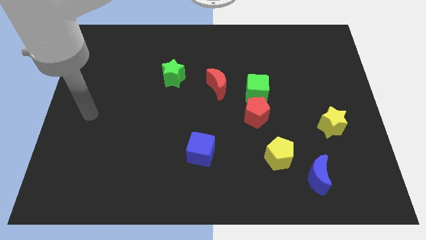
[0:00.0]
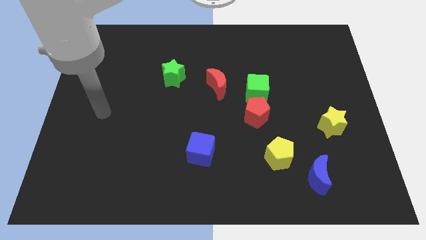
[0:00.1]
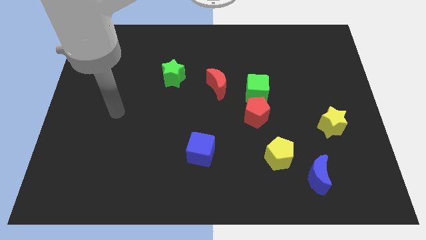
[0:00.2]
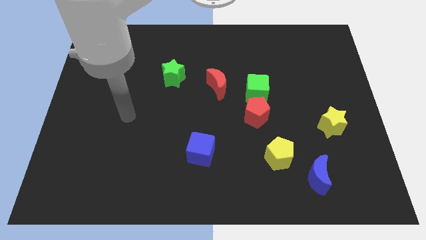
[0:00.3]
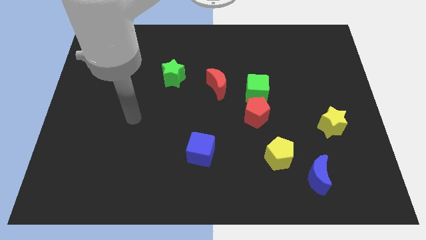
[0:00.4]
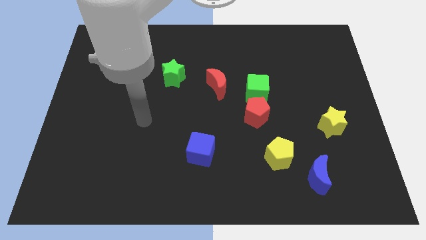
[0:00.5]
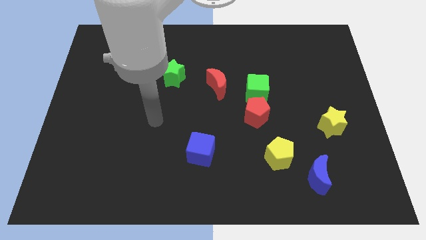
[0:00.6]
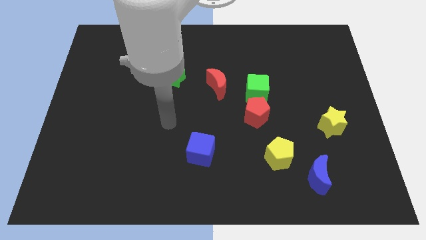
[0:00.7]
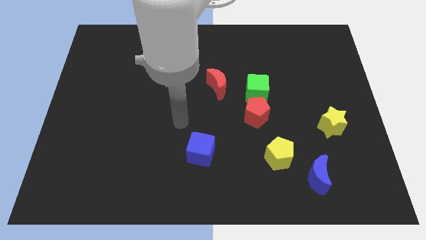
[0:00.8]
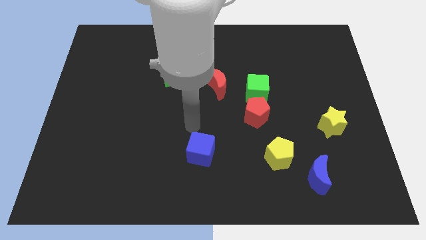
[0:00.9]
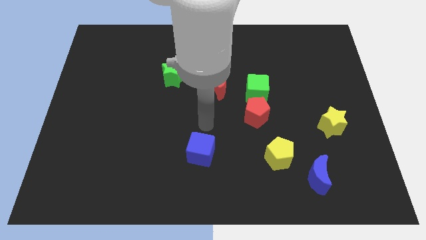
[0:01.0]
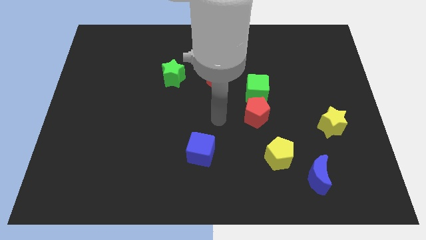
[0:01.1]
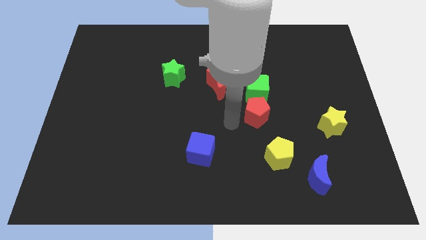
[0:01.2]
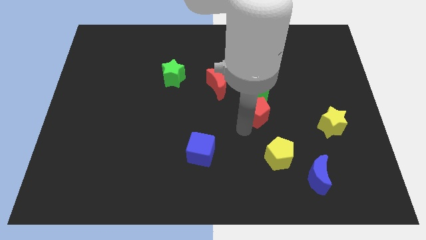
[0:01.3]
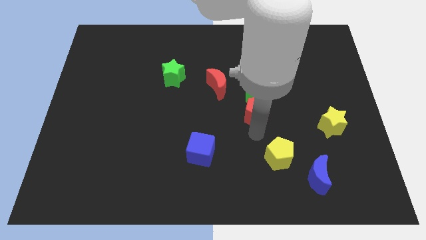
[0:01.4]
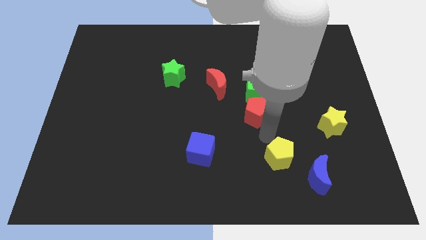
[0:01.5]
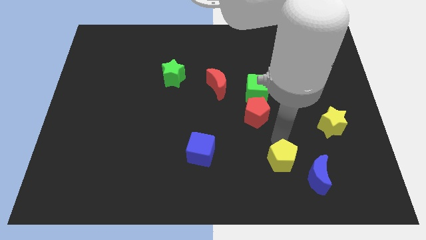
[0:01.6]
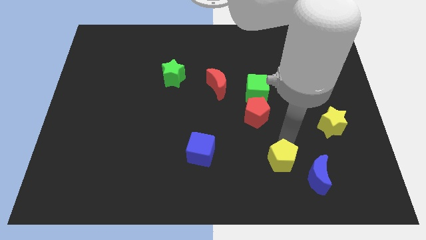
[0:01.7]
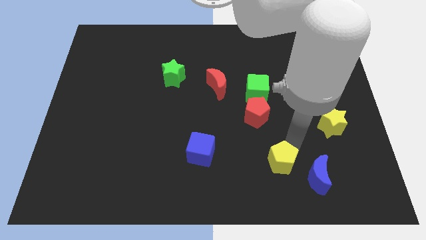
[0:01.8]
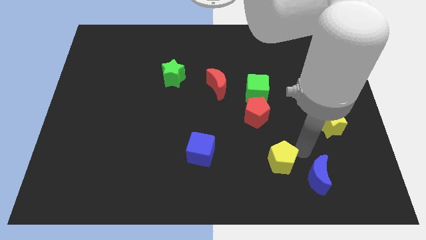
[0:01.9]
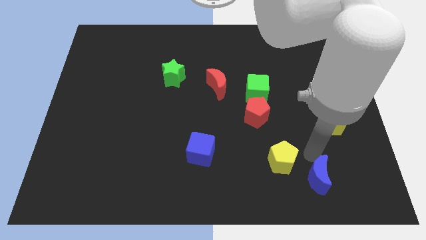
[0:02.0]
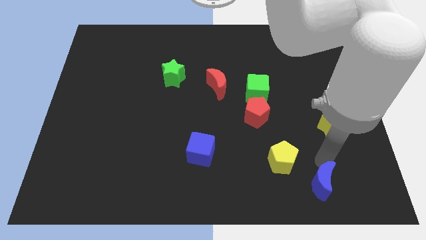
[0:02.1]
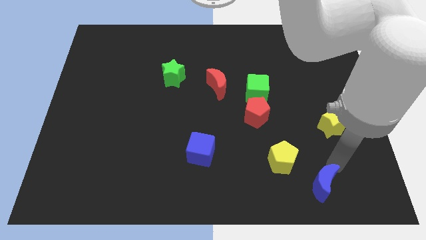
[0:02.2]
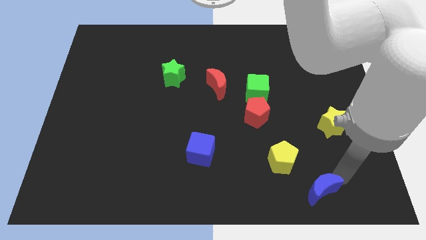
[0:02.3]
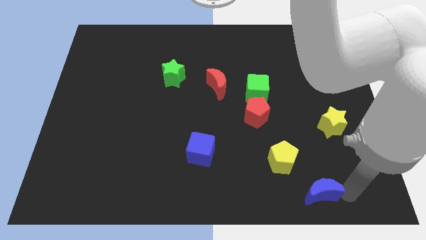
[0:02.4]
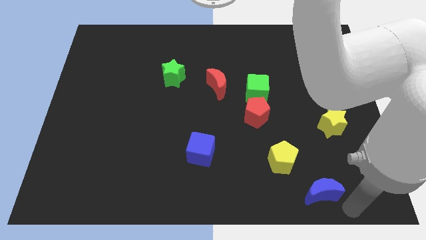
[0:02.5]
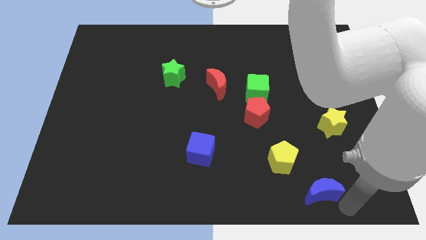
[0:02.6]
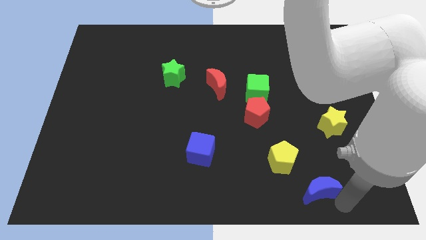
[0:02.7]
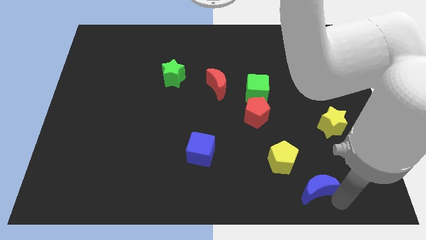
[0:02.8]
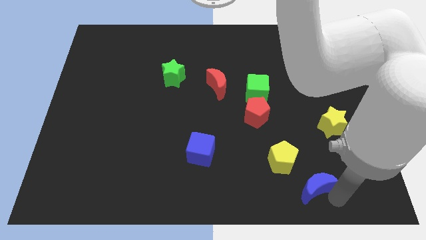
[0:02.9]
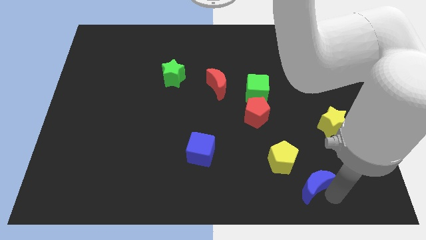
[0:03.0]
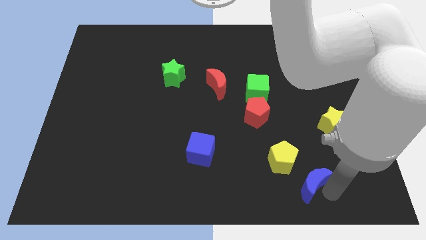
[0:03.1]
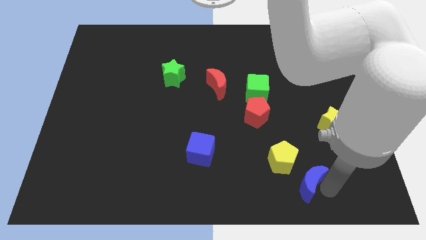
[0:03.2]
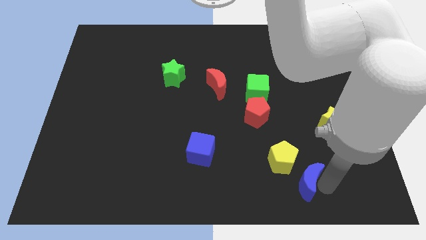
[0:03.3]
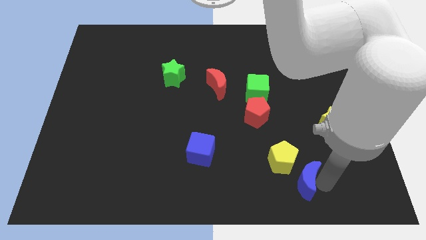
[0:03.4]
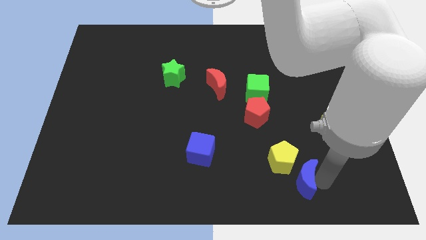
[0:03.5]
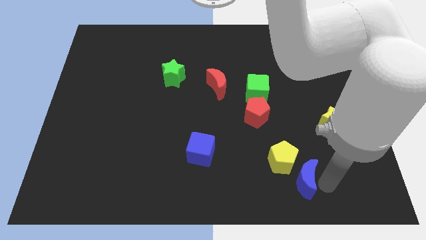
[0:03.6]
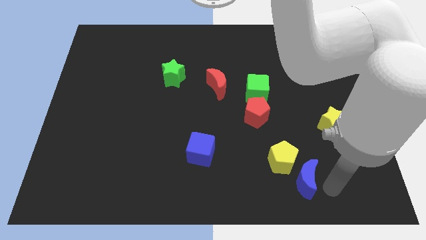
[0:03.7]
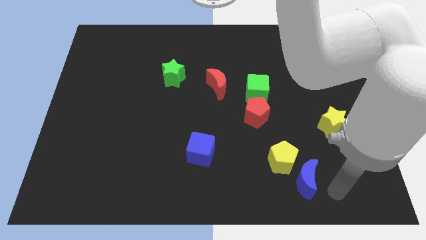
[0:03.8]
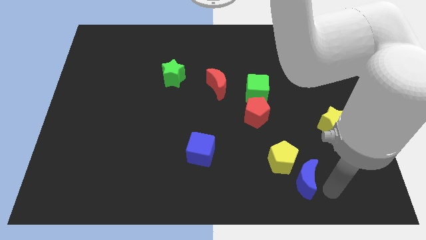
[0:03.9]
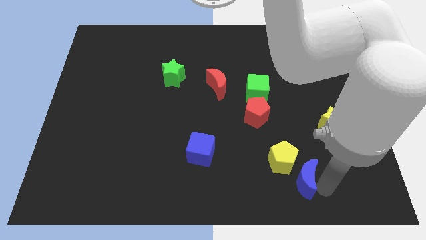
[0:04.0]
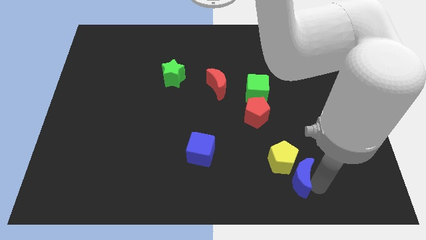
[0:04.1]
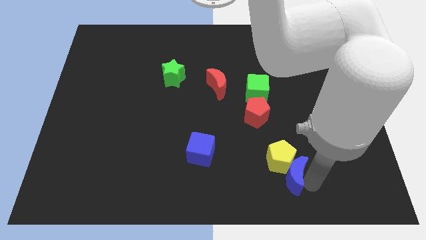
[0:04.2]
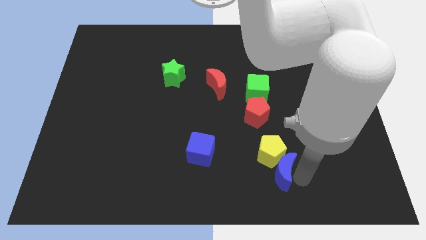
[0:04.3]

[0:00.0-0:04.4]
move the blue moon somewhat left

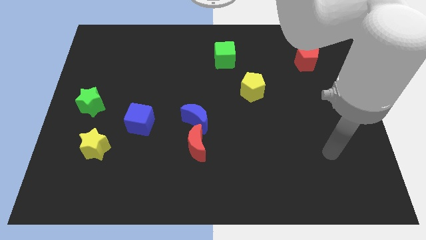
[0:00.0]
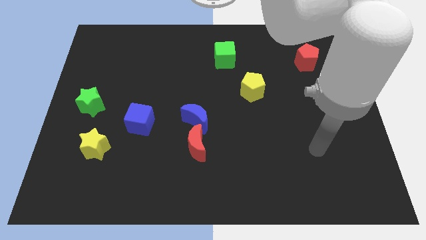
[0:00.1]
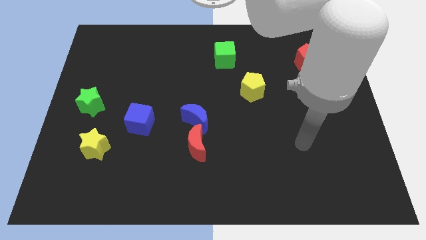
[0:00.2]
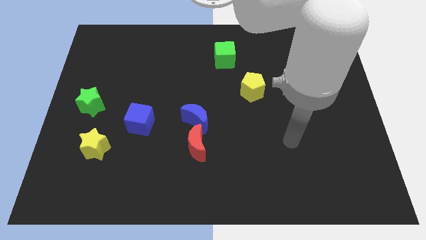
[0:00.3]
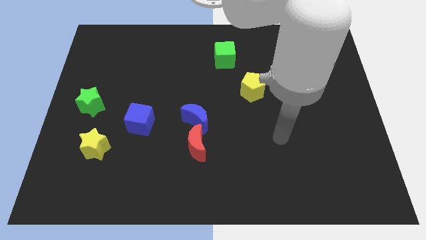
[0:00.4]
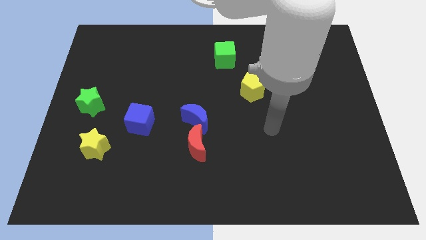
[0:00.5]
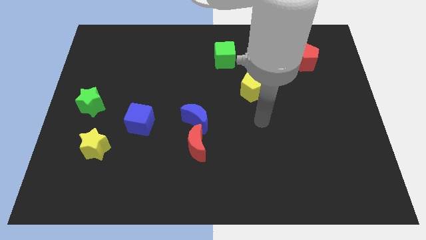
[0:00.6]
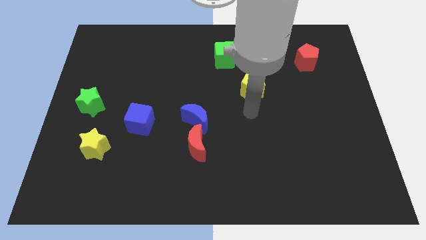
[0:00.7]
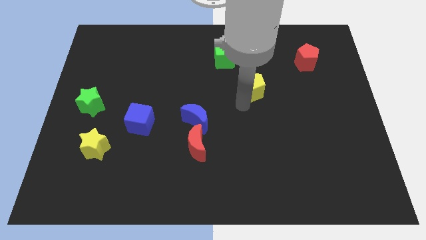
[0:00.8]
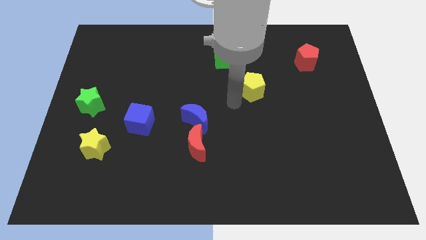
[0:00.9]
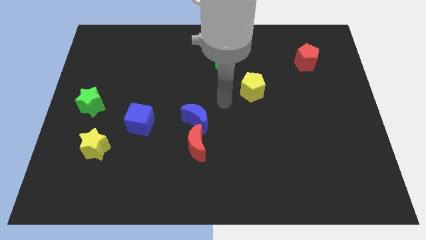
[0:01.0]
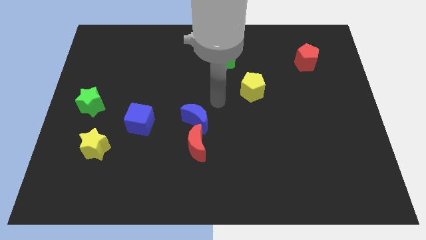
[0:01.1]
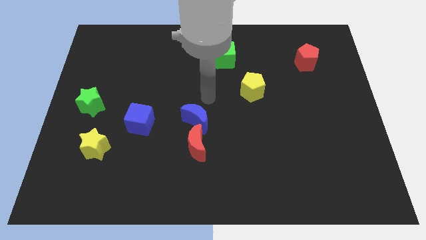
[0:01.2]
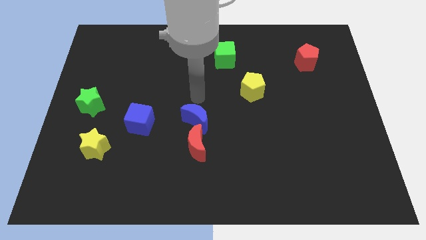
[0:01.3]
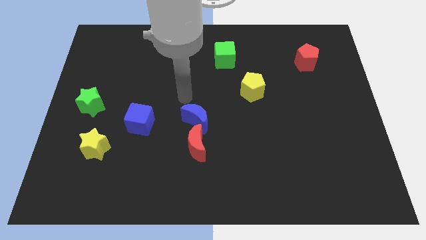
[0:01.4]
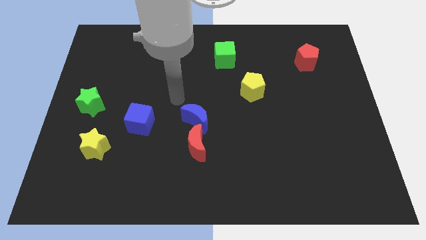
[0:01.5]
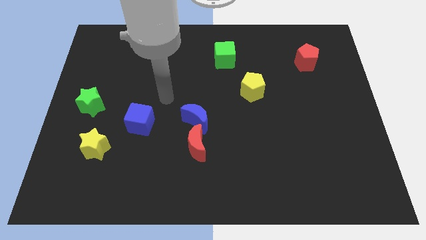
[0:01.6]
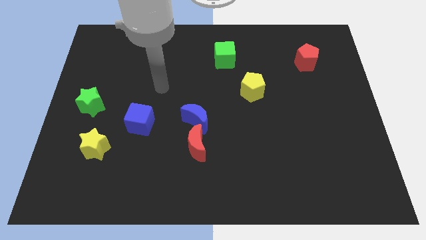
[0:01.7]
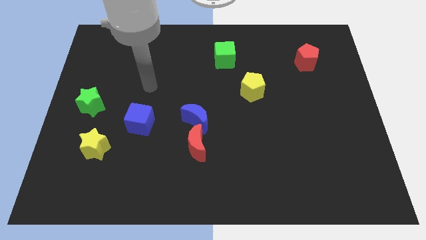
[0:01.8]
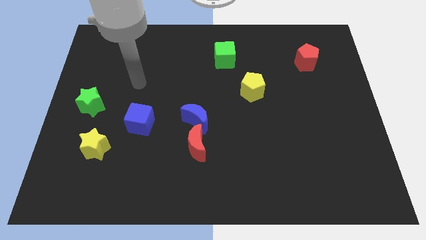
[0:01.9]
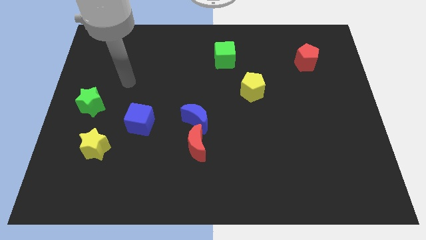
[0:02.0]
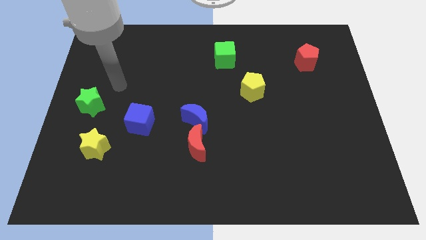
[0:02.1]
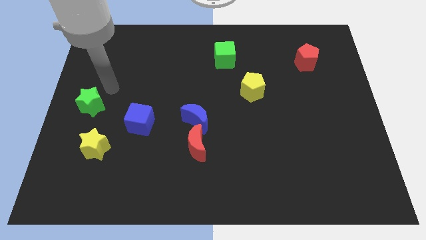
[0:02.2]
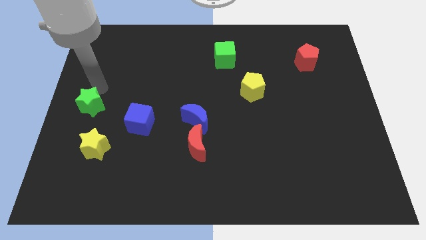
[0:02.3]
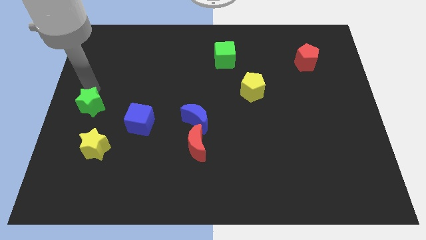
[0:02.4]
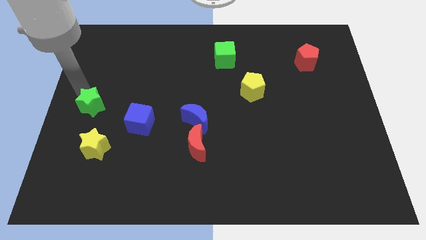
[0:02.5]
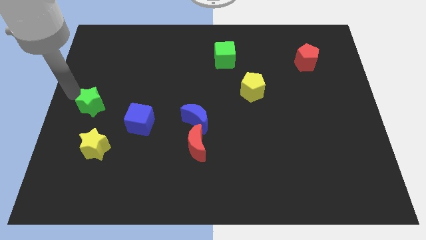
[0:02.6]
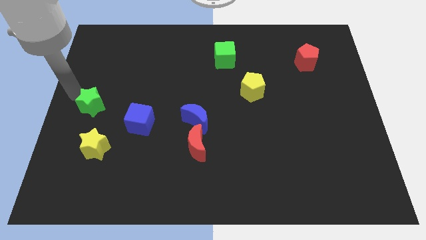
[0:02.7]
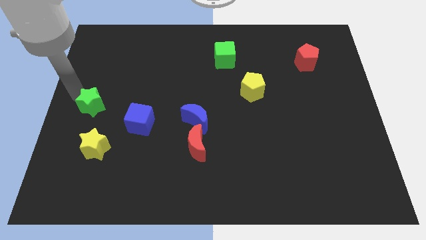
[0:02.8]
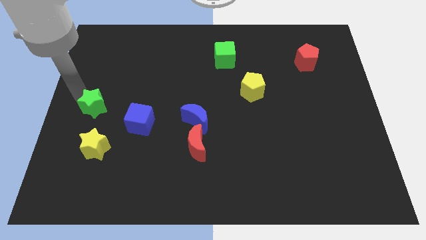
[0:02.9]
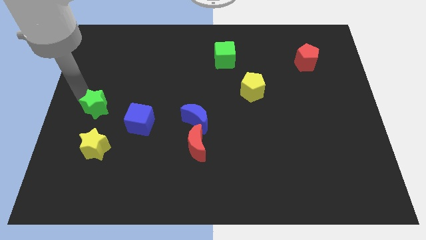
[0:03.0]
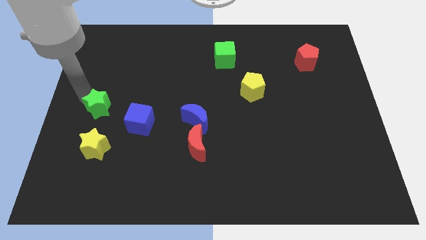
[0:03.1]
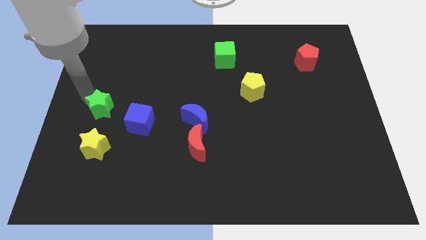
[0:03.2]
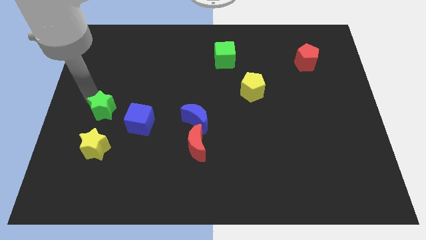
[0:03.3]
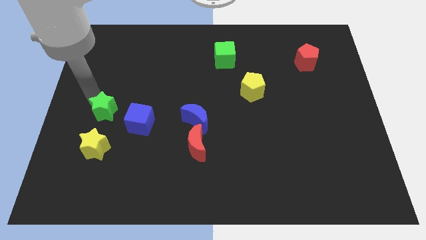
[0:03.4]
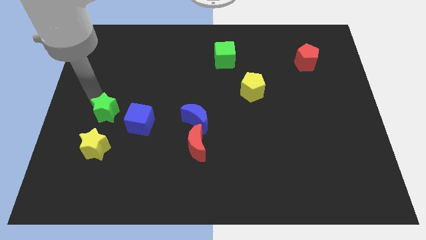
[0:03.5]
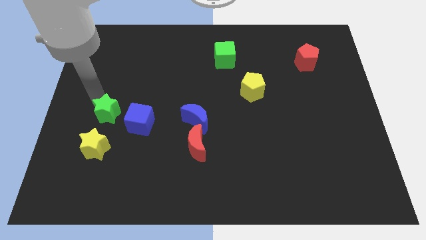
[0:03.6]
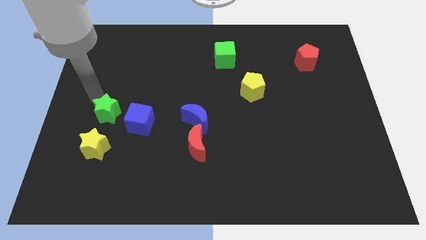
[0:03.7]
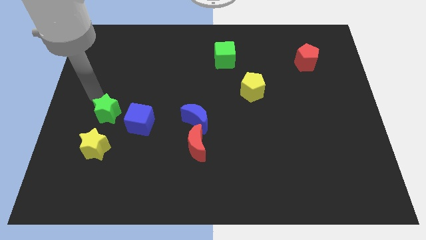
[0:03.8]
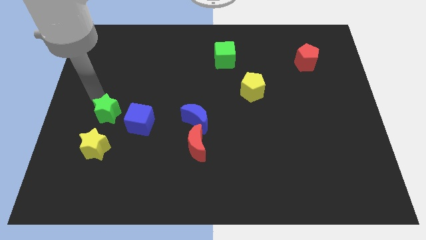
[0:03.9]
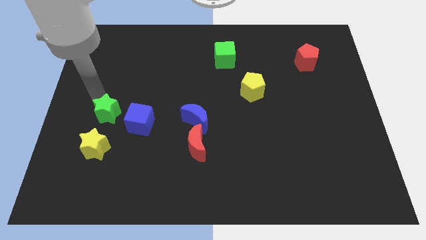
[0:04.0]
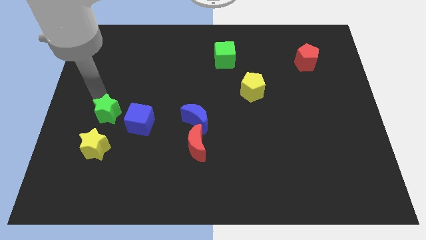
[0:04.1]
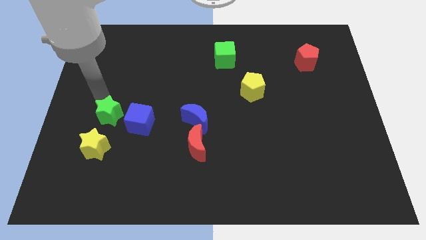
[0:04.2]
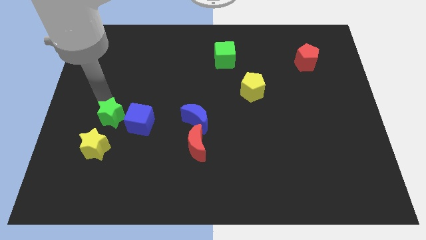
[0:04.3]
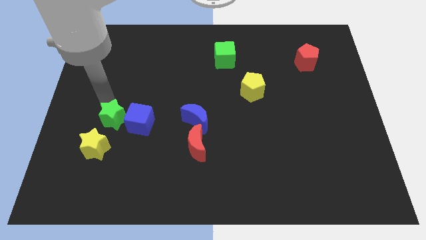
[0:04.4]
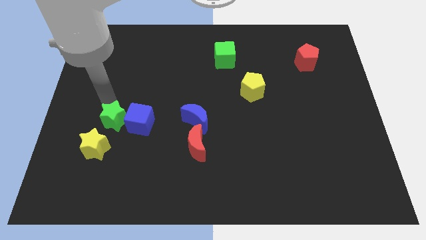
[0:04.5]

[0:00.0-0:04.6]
push the green star a little bit downwards and to the right
